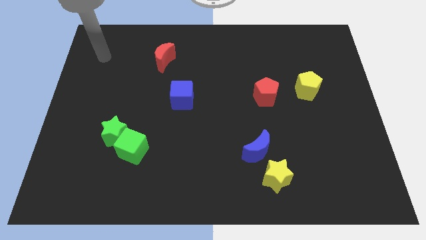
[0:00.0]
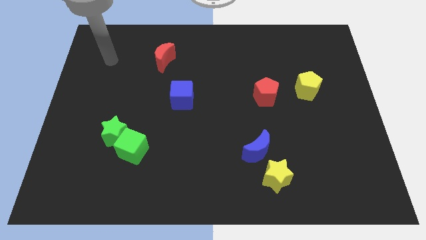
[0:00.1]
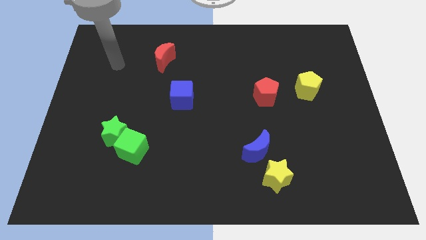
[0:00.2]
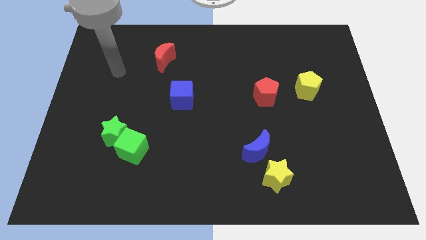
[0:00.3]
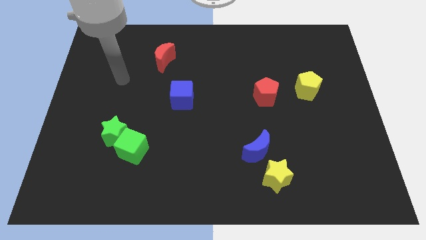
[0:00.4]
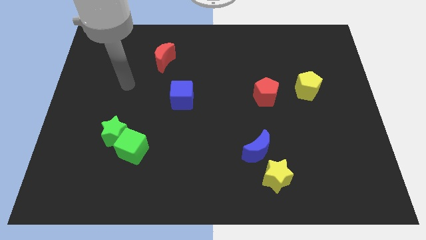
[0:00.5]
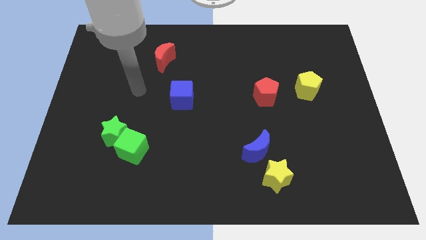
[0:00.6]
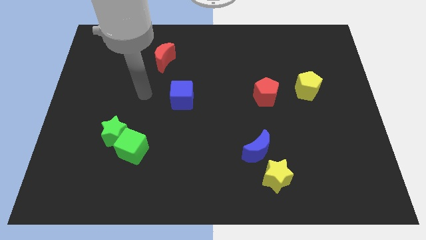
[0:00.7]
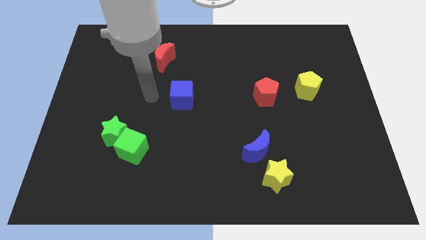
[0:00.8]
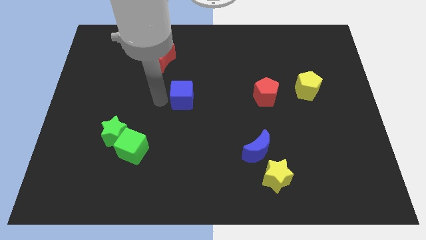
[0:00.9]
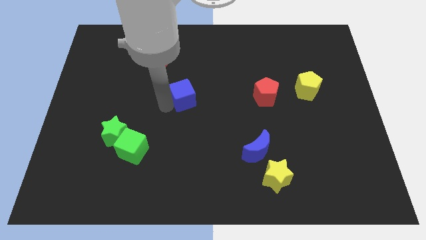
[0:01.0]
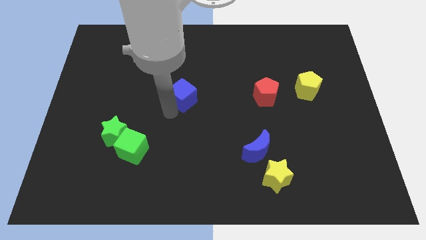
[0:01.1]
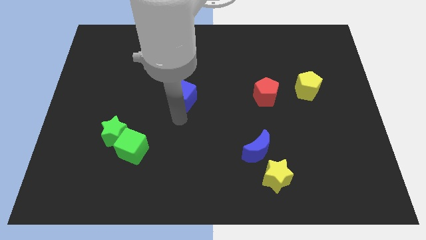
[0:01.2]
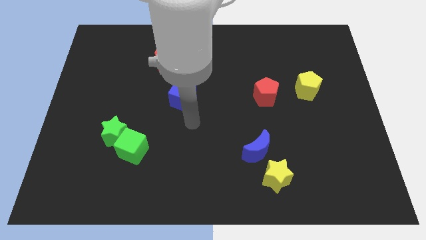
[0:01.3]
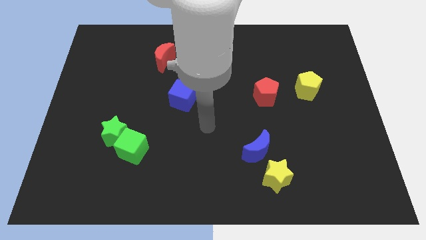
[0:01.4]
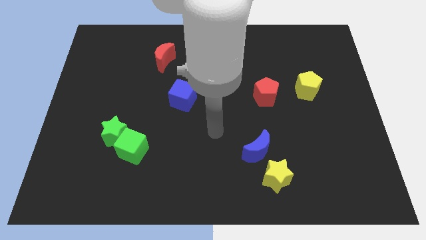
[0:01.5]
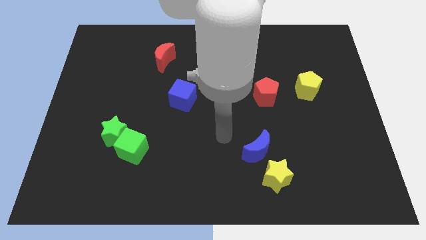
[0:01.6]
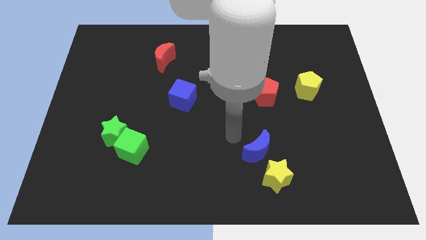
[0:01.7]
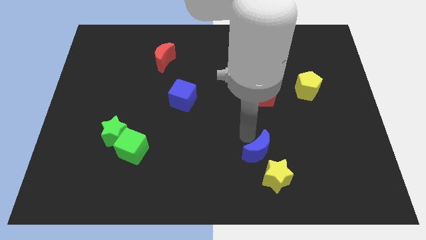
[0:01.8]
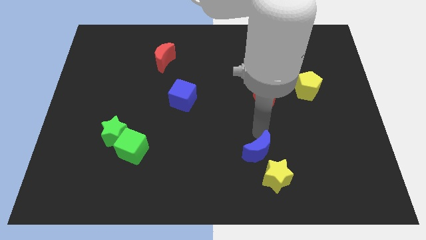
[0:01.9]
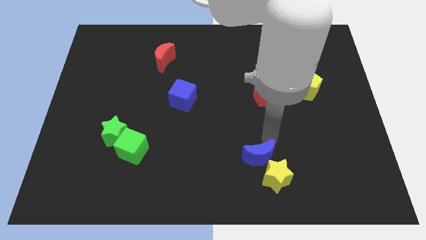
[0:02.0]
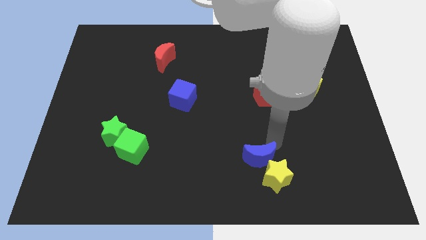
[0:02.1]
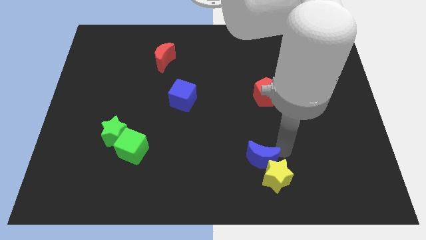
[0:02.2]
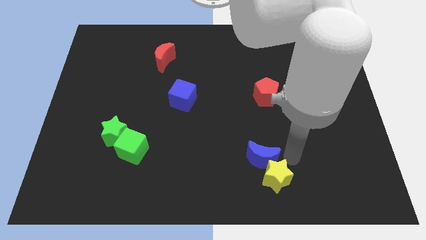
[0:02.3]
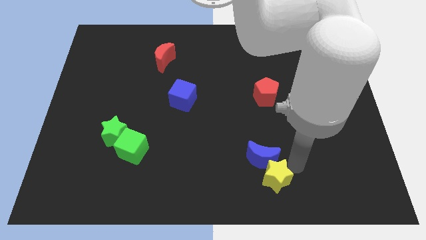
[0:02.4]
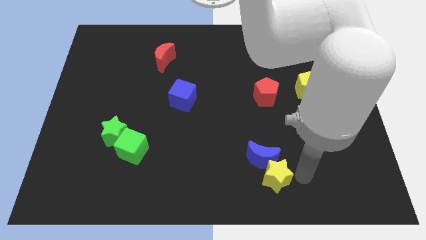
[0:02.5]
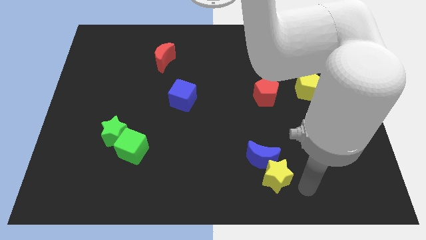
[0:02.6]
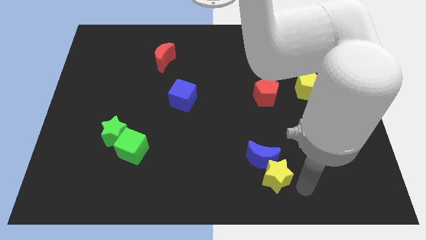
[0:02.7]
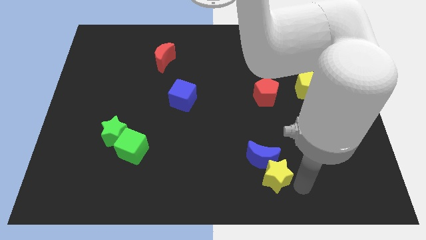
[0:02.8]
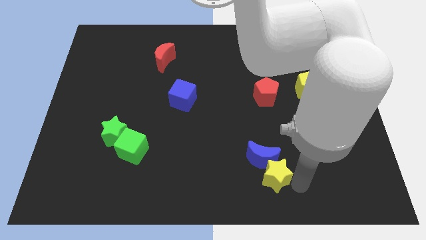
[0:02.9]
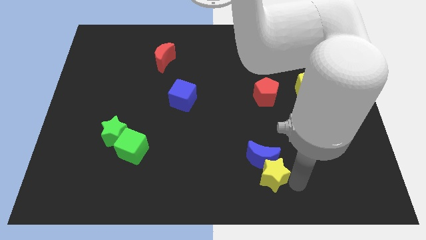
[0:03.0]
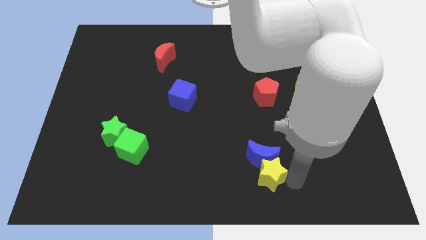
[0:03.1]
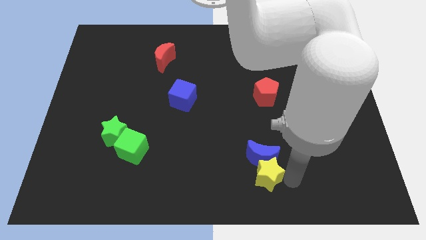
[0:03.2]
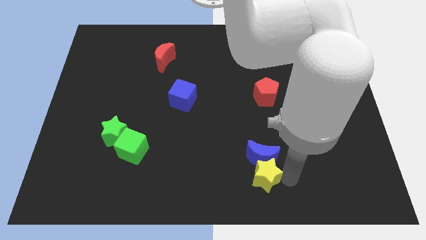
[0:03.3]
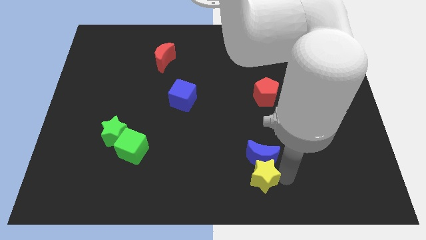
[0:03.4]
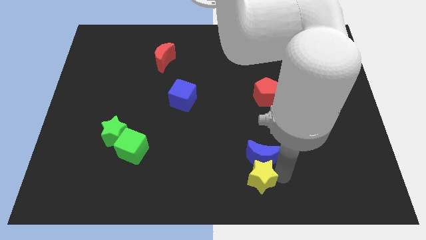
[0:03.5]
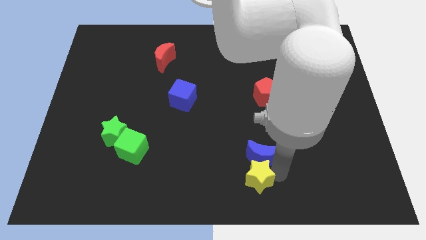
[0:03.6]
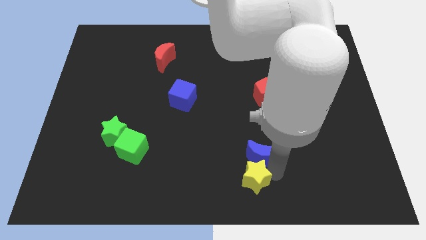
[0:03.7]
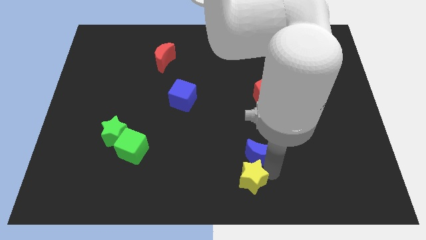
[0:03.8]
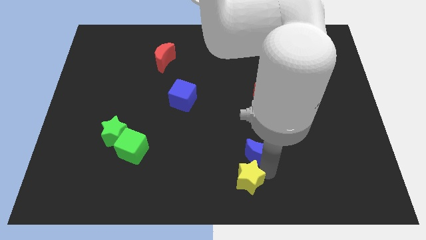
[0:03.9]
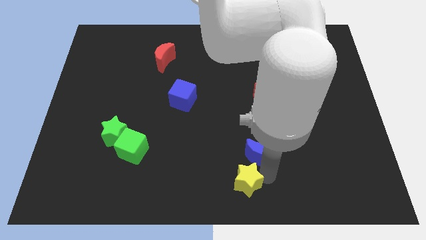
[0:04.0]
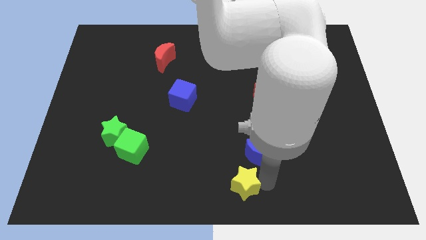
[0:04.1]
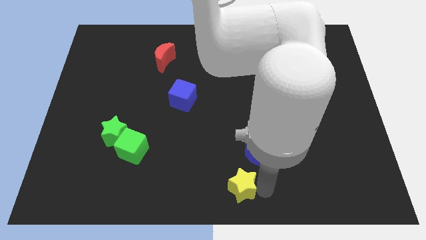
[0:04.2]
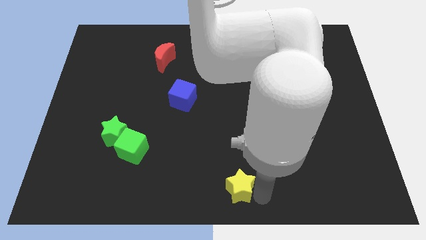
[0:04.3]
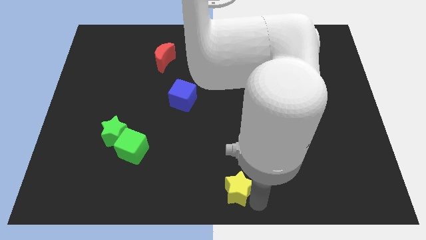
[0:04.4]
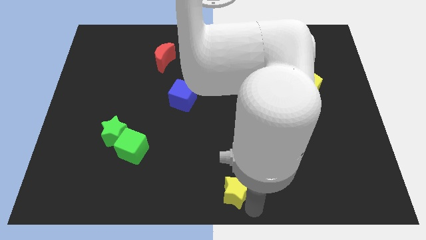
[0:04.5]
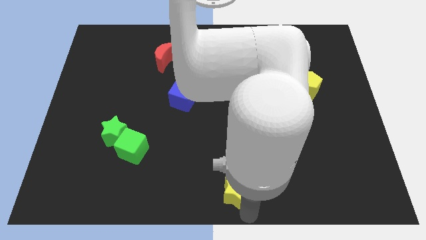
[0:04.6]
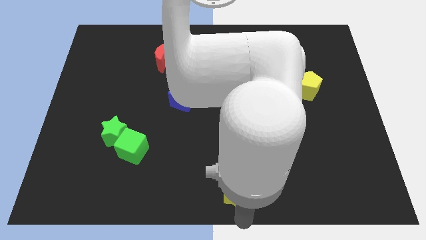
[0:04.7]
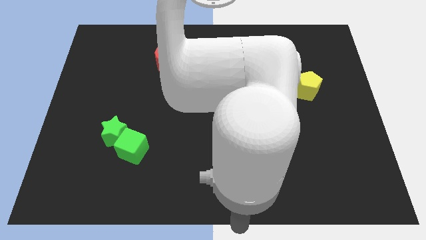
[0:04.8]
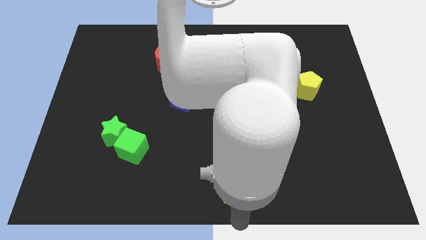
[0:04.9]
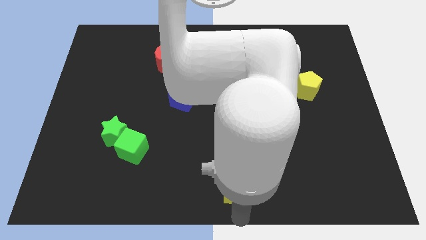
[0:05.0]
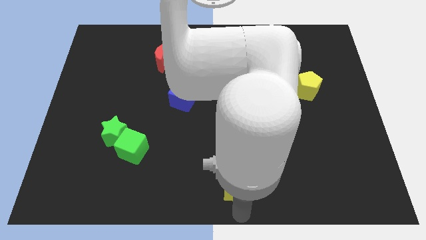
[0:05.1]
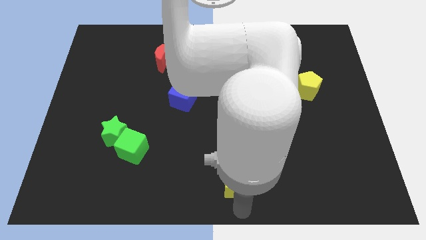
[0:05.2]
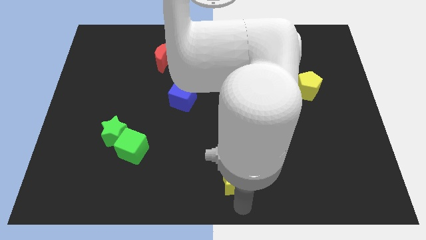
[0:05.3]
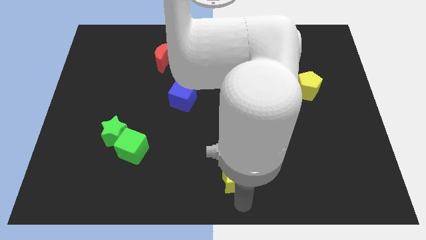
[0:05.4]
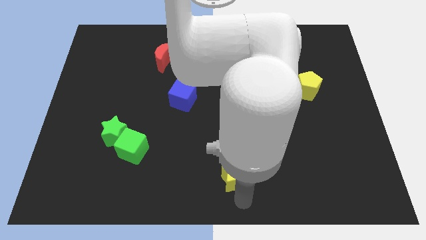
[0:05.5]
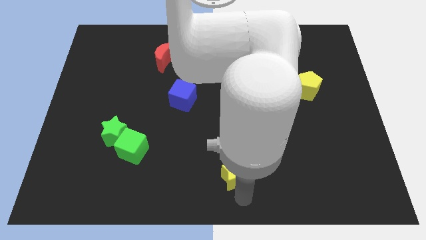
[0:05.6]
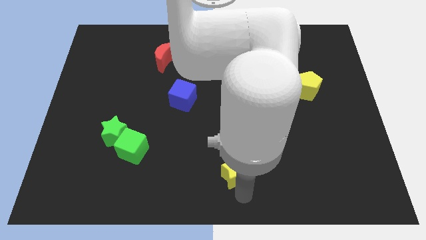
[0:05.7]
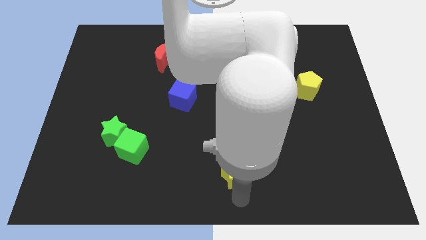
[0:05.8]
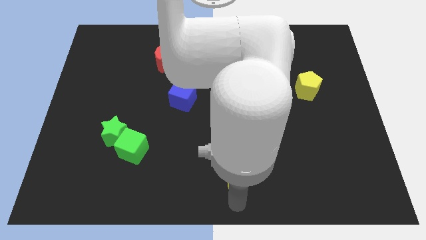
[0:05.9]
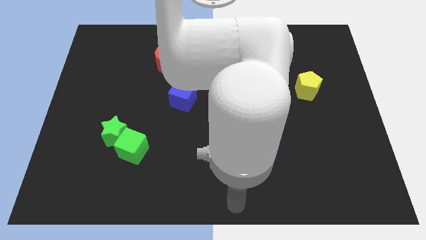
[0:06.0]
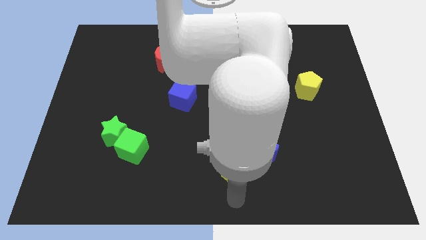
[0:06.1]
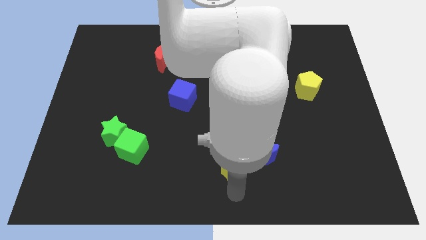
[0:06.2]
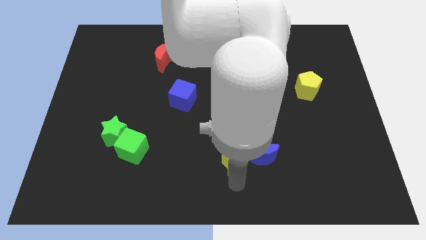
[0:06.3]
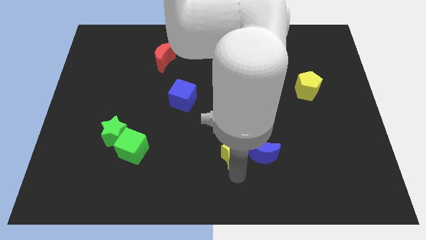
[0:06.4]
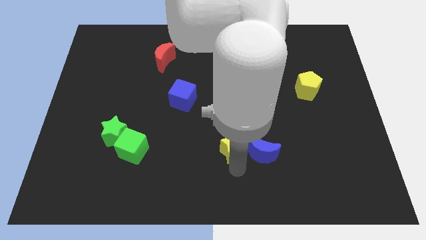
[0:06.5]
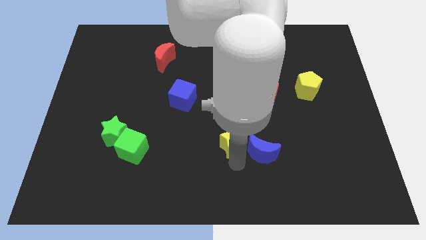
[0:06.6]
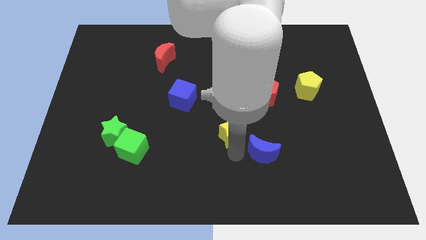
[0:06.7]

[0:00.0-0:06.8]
push the yellow star to the middle of the board
